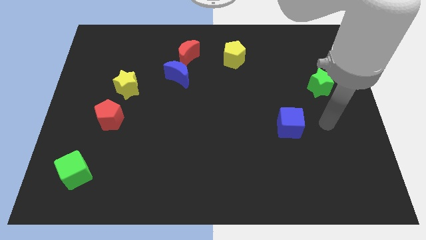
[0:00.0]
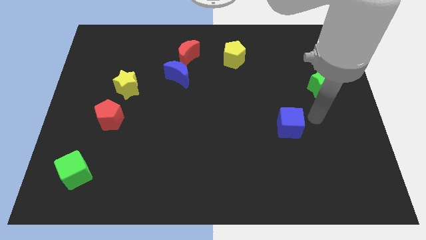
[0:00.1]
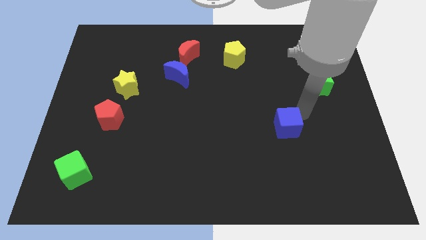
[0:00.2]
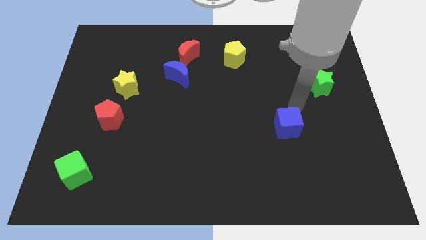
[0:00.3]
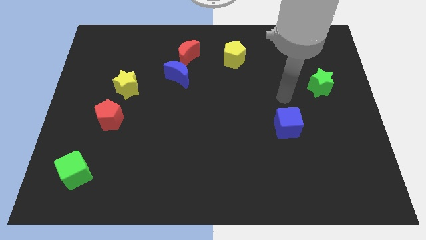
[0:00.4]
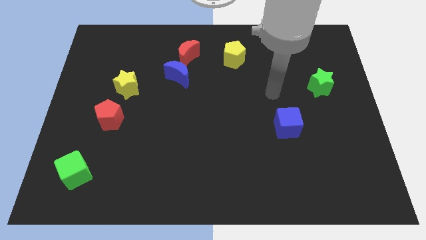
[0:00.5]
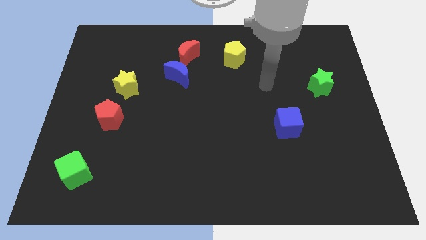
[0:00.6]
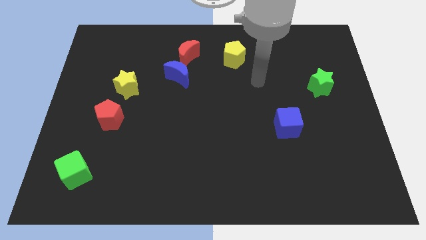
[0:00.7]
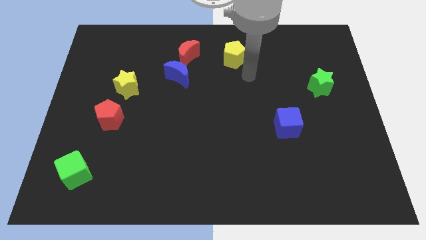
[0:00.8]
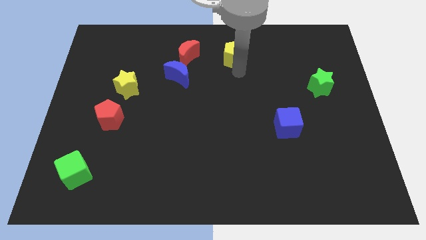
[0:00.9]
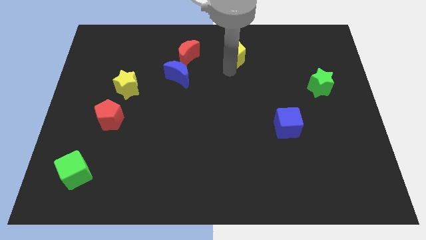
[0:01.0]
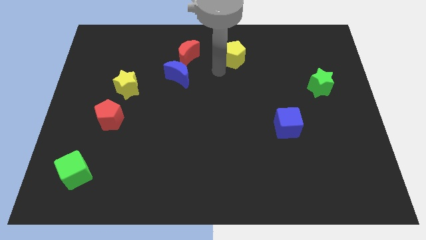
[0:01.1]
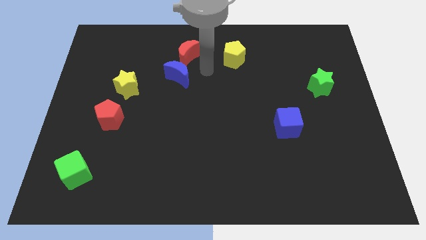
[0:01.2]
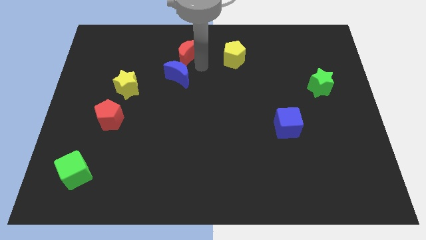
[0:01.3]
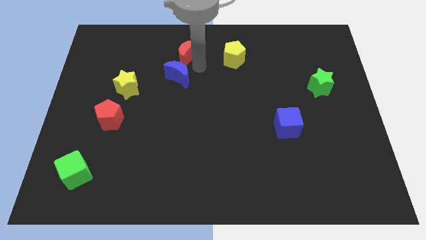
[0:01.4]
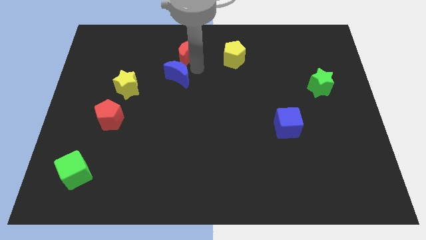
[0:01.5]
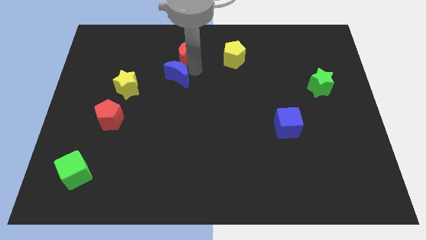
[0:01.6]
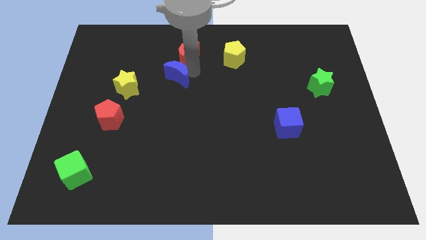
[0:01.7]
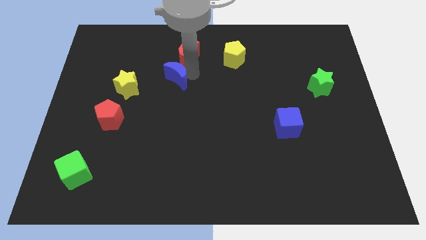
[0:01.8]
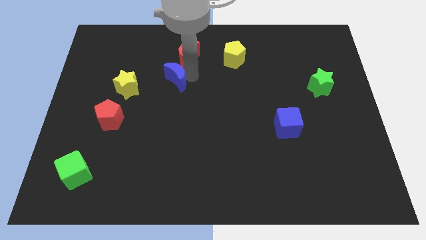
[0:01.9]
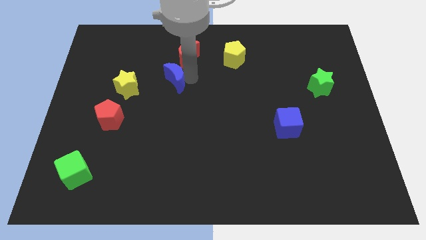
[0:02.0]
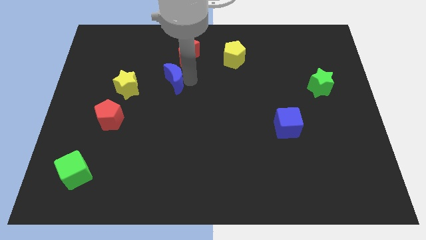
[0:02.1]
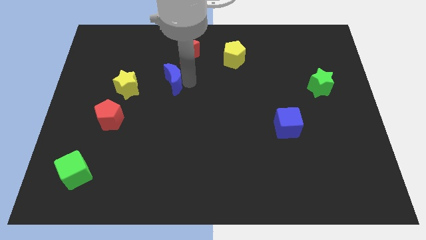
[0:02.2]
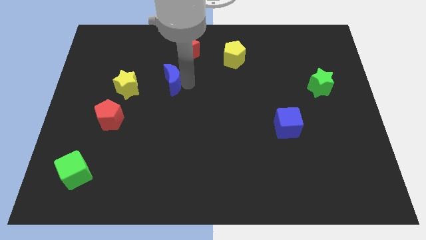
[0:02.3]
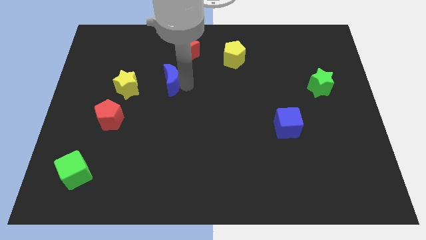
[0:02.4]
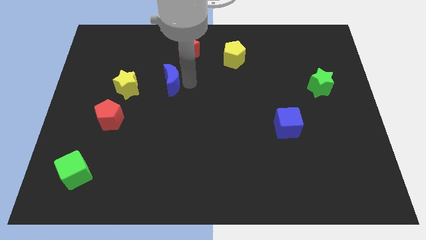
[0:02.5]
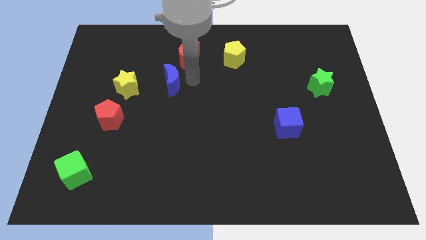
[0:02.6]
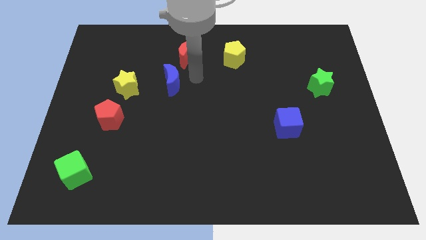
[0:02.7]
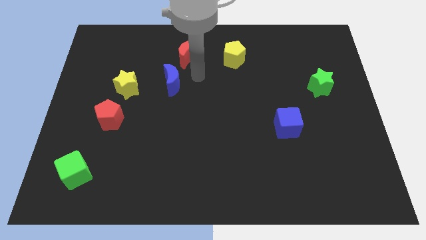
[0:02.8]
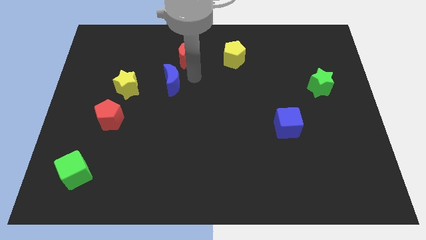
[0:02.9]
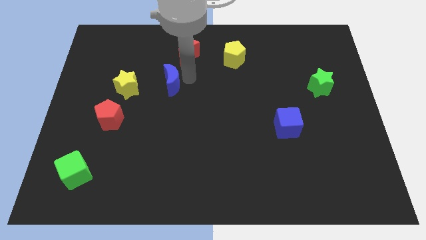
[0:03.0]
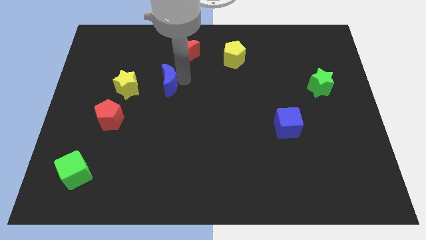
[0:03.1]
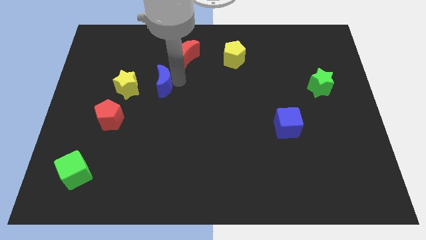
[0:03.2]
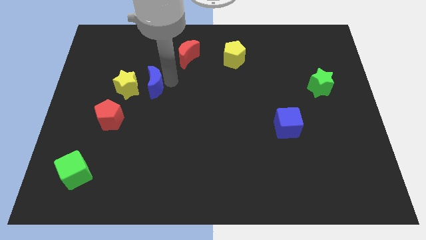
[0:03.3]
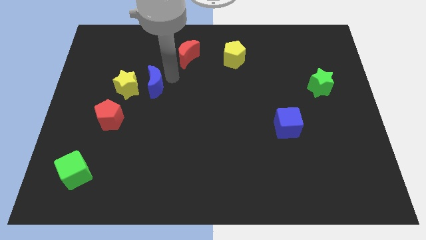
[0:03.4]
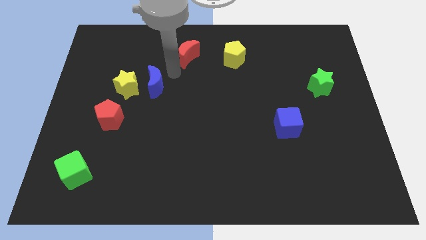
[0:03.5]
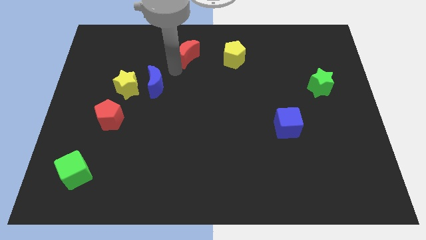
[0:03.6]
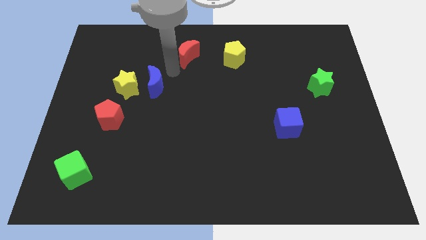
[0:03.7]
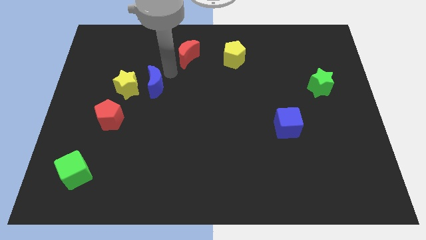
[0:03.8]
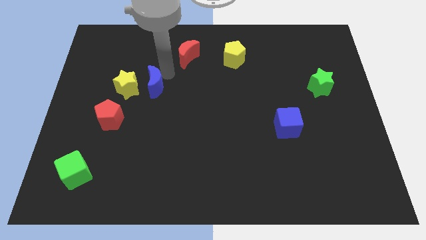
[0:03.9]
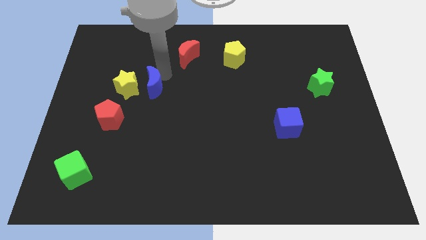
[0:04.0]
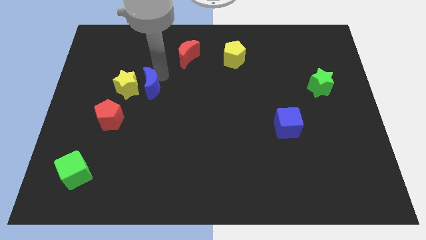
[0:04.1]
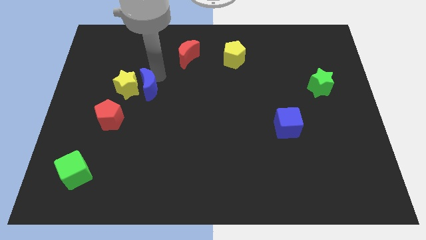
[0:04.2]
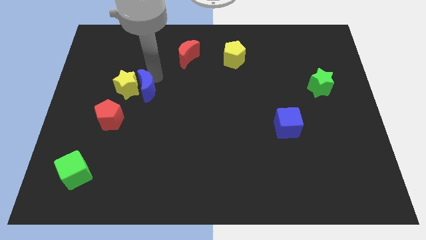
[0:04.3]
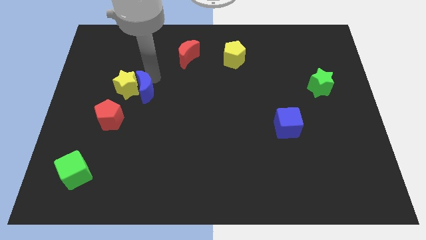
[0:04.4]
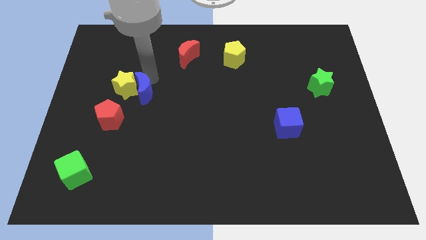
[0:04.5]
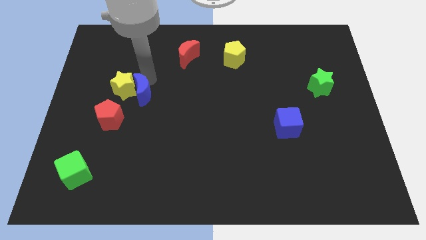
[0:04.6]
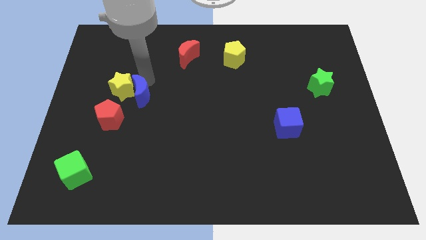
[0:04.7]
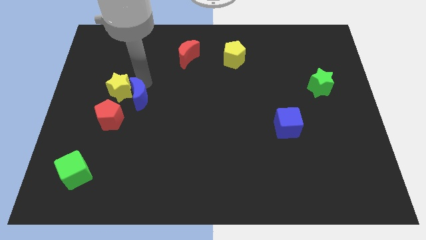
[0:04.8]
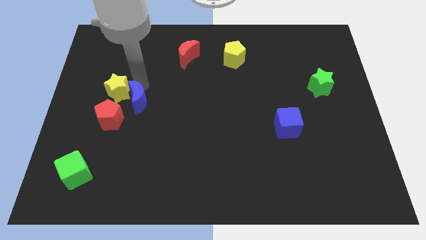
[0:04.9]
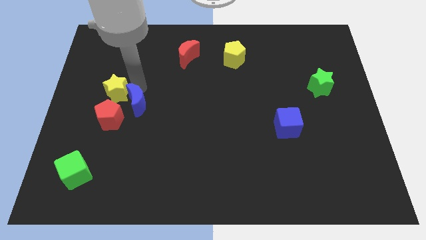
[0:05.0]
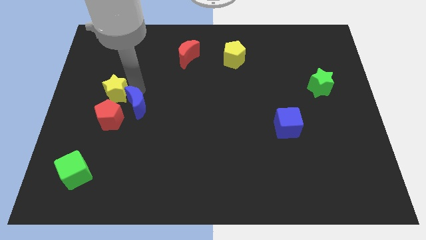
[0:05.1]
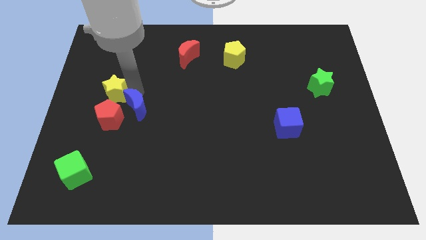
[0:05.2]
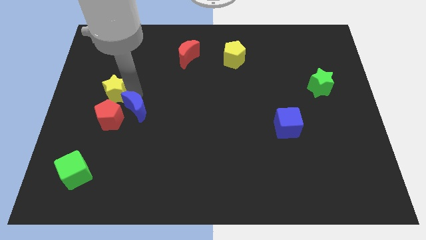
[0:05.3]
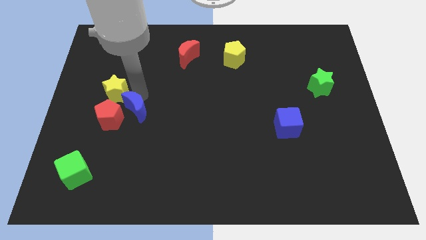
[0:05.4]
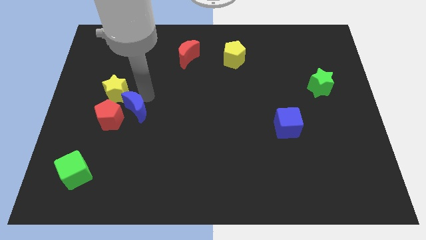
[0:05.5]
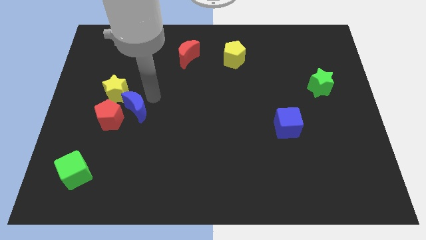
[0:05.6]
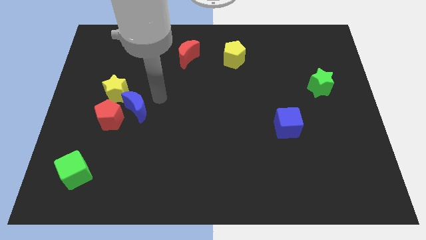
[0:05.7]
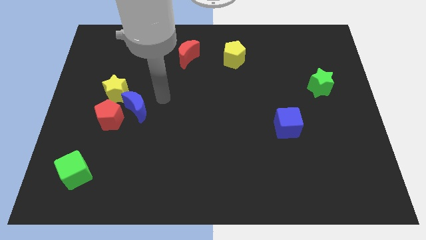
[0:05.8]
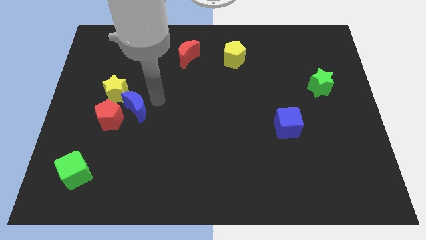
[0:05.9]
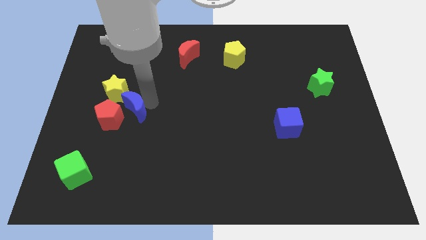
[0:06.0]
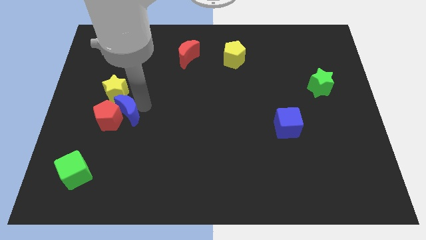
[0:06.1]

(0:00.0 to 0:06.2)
put the blue moon close to the red pentagon

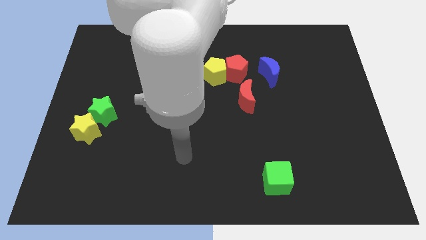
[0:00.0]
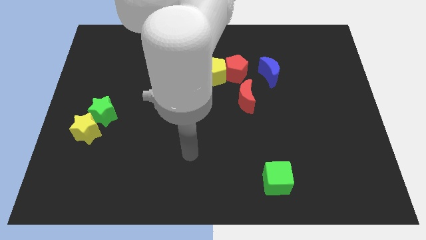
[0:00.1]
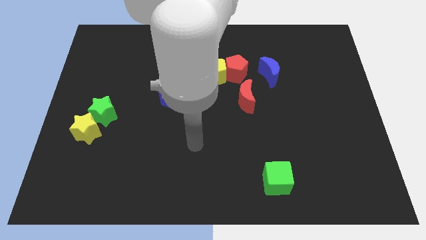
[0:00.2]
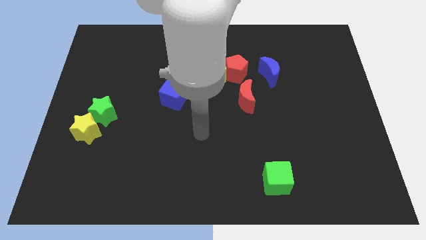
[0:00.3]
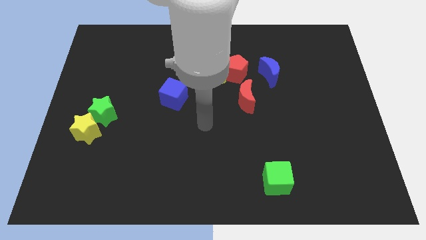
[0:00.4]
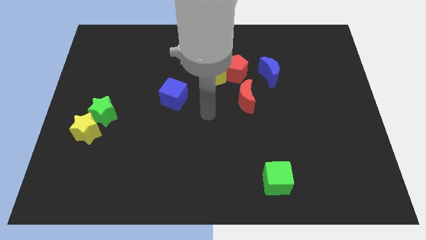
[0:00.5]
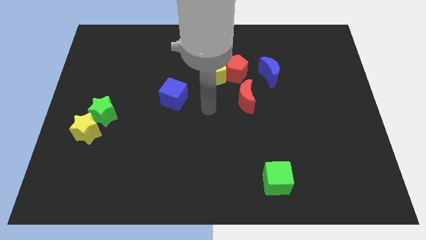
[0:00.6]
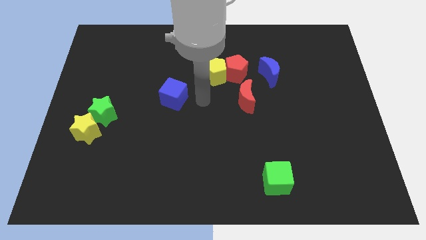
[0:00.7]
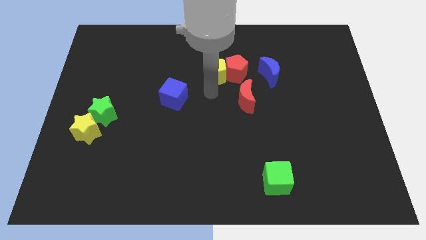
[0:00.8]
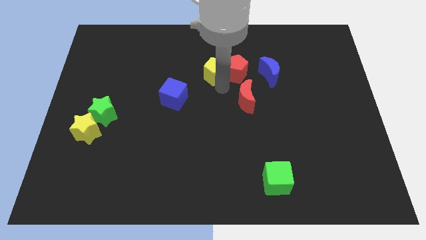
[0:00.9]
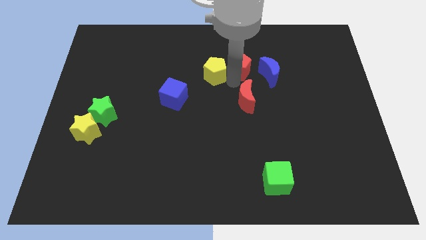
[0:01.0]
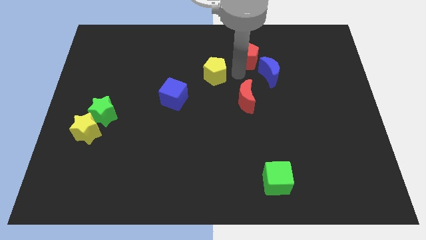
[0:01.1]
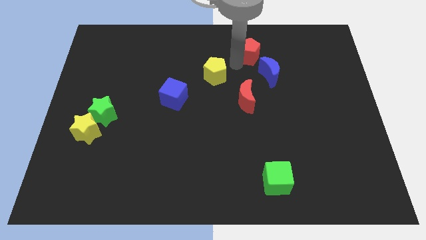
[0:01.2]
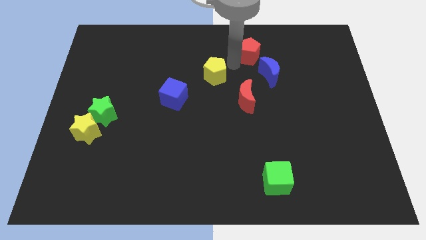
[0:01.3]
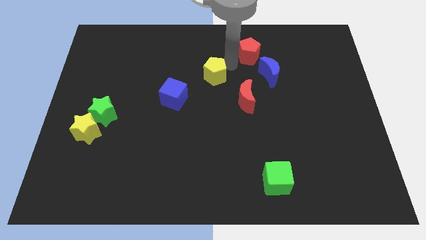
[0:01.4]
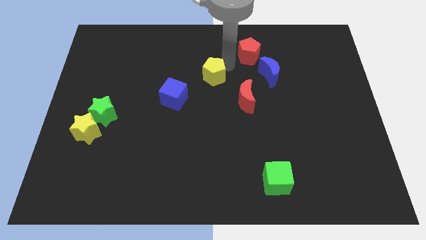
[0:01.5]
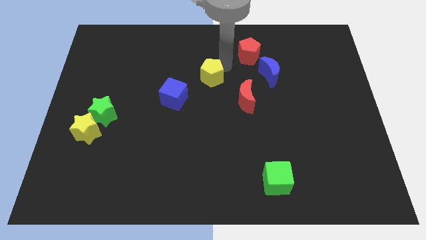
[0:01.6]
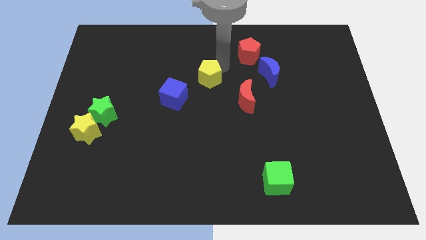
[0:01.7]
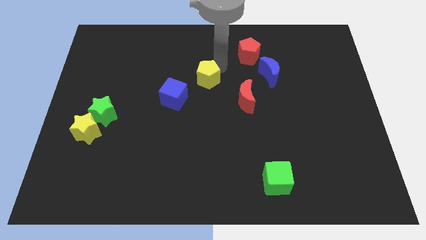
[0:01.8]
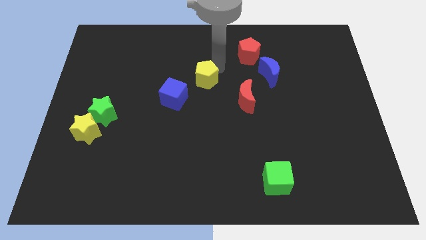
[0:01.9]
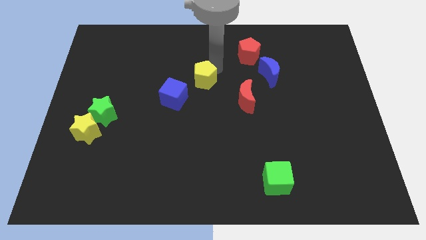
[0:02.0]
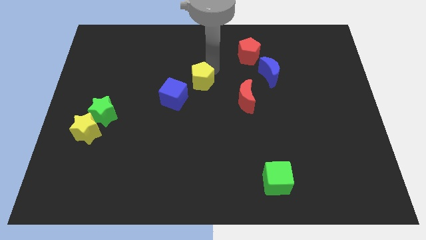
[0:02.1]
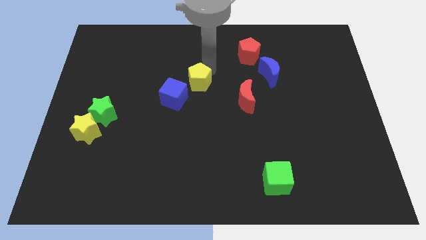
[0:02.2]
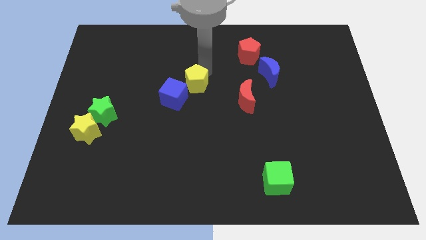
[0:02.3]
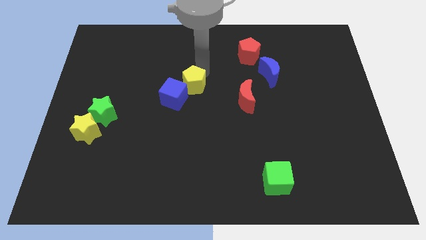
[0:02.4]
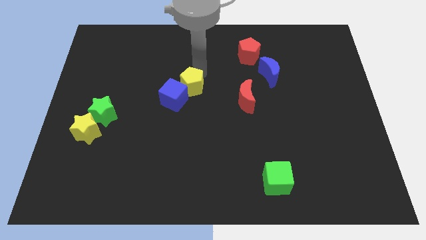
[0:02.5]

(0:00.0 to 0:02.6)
slide the yellow pentagon to the blue cube
